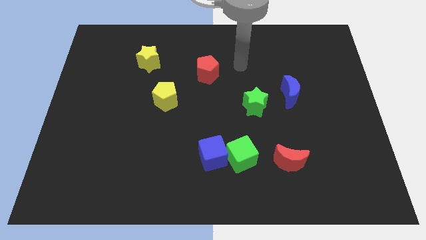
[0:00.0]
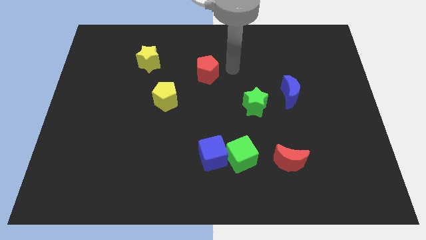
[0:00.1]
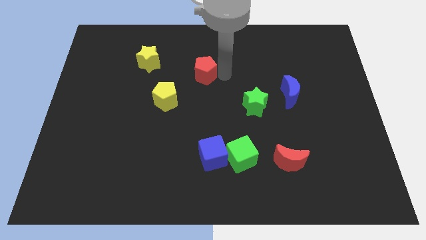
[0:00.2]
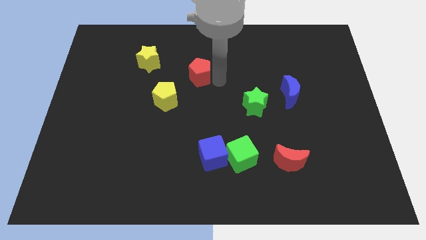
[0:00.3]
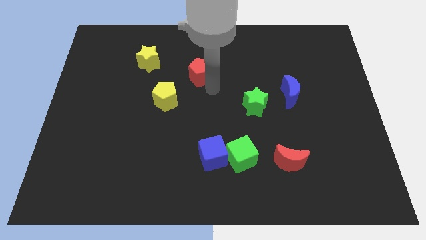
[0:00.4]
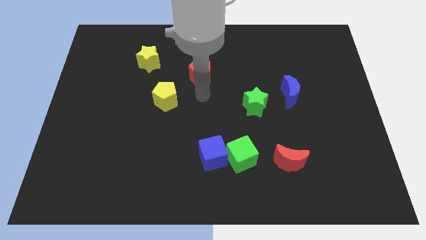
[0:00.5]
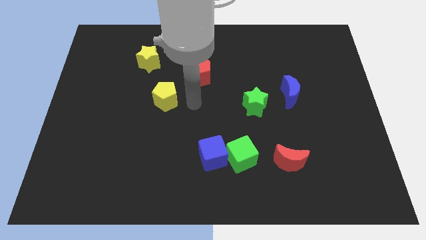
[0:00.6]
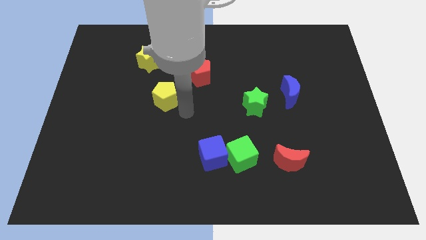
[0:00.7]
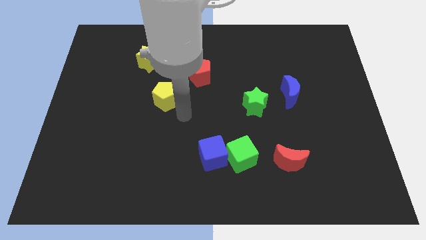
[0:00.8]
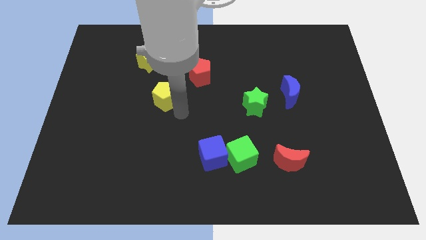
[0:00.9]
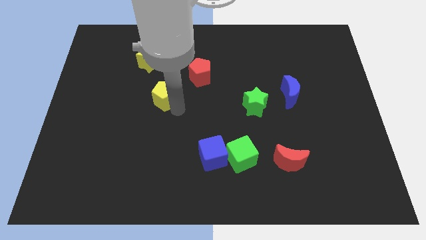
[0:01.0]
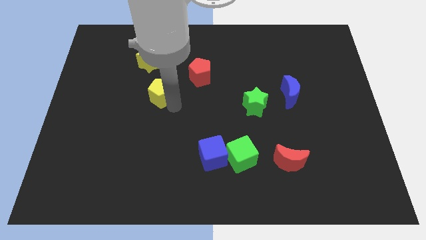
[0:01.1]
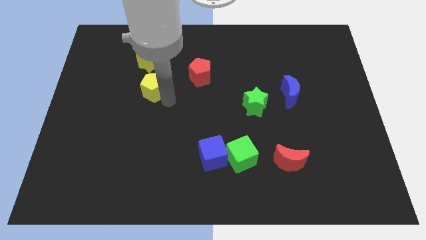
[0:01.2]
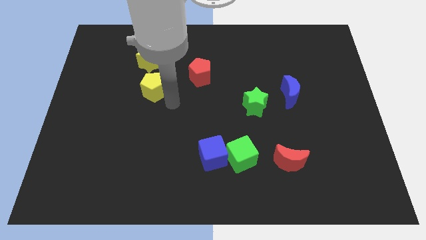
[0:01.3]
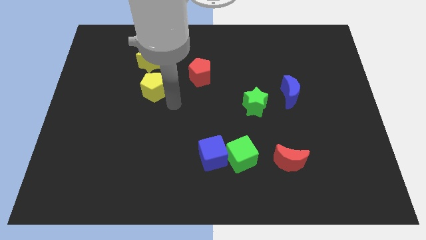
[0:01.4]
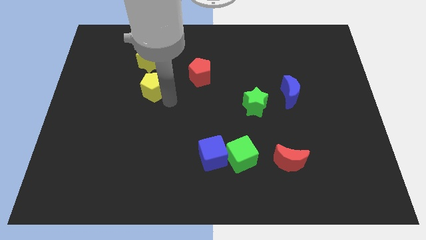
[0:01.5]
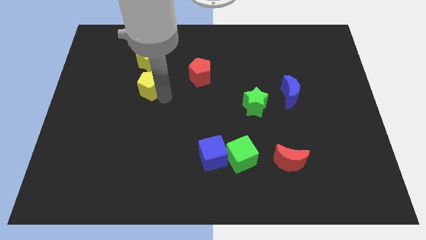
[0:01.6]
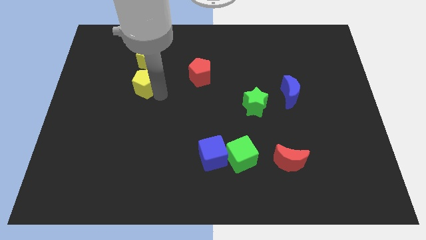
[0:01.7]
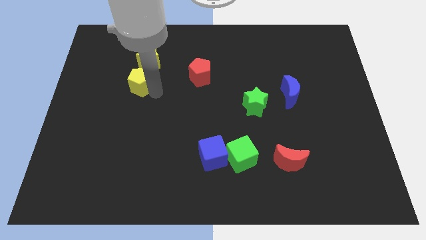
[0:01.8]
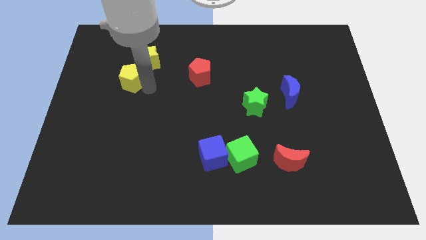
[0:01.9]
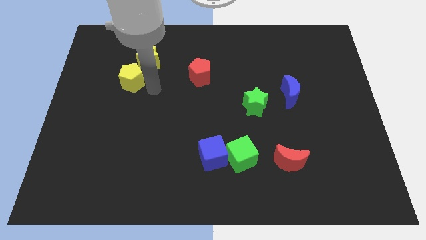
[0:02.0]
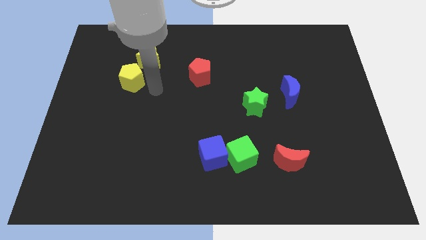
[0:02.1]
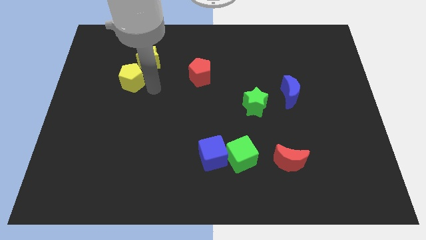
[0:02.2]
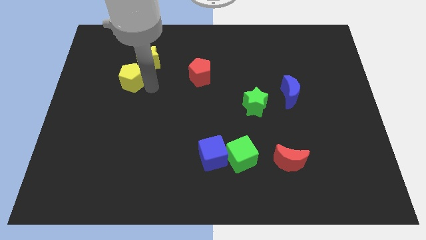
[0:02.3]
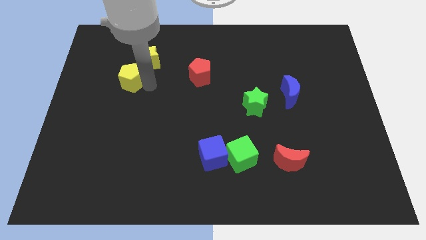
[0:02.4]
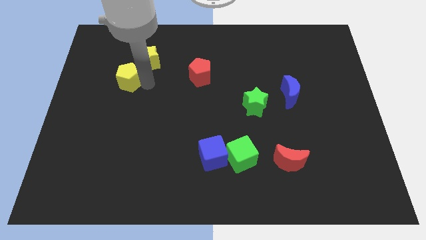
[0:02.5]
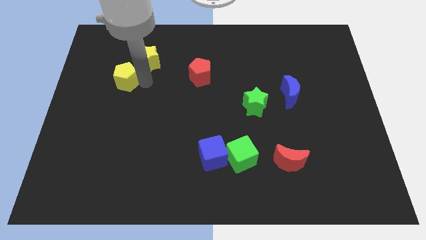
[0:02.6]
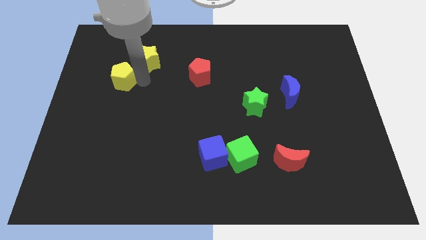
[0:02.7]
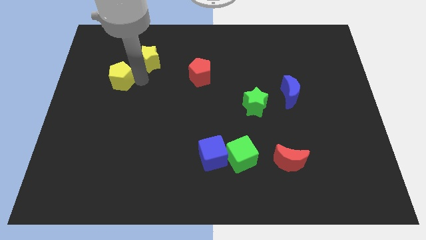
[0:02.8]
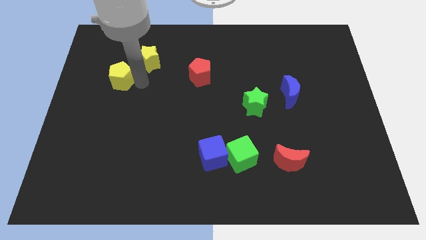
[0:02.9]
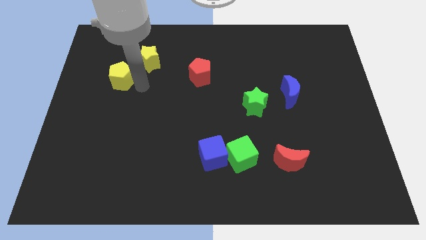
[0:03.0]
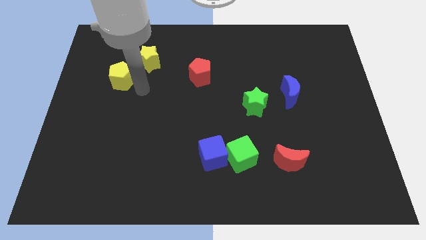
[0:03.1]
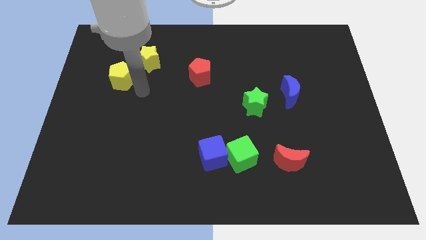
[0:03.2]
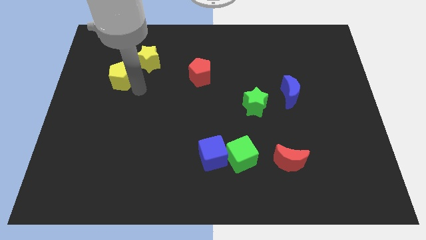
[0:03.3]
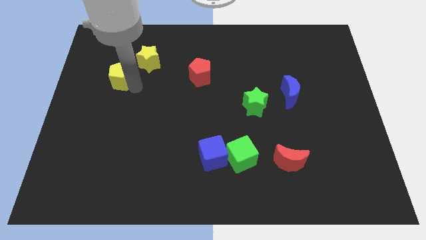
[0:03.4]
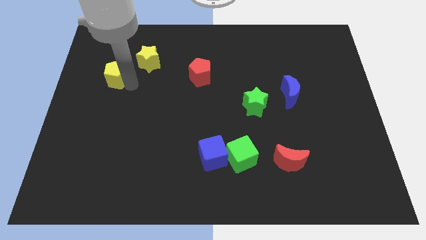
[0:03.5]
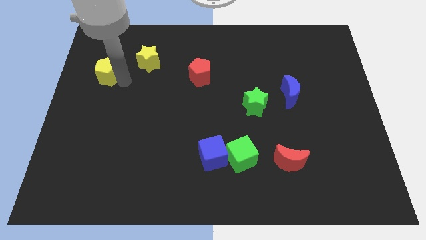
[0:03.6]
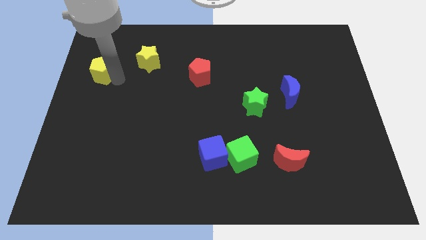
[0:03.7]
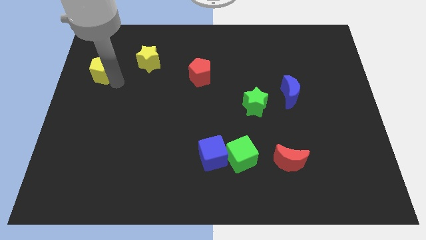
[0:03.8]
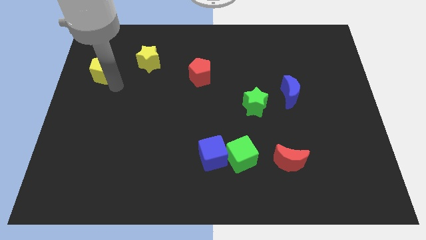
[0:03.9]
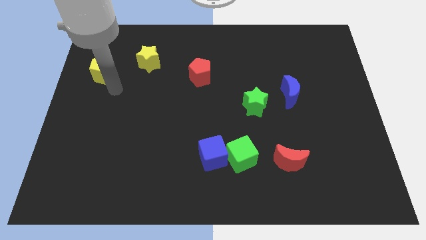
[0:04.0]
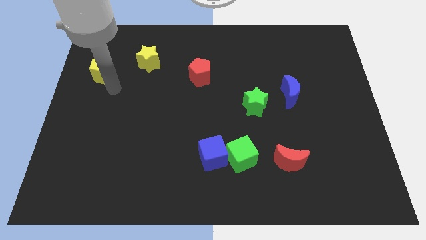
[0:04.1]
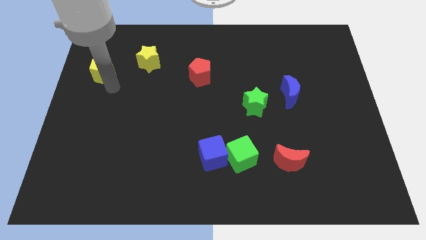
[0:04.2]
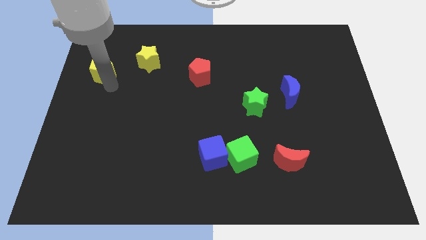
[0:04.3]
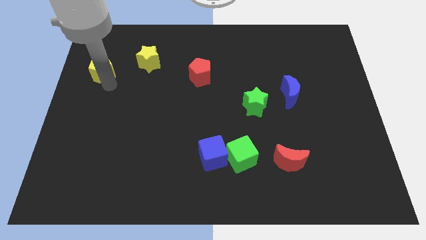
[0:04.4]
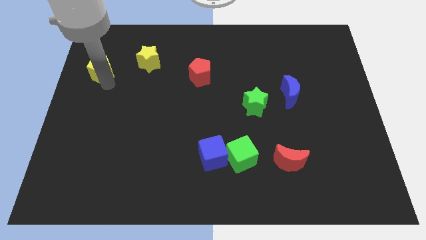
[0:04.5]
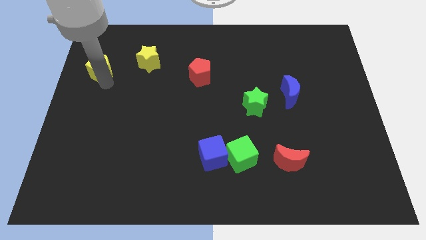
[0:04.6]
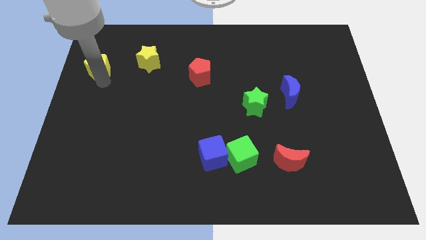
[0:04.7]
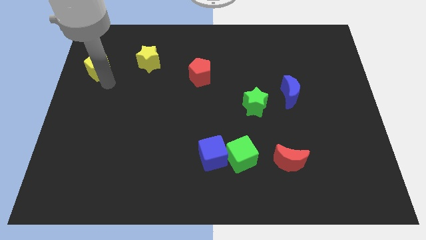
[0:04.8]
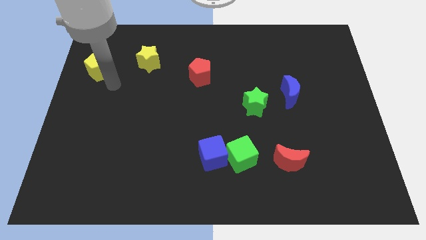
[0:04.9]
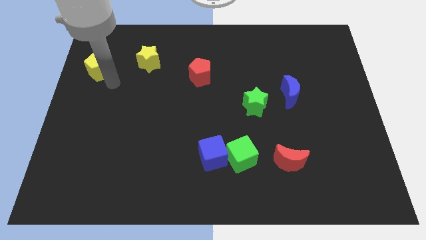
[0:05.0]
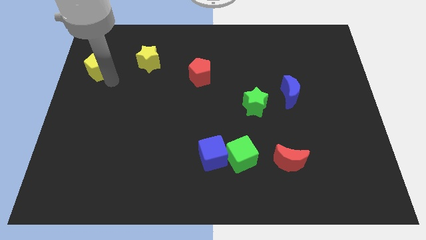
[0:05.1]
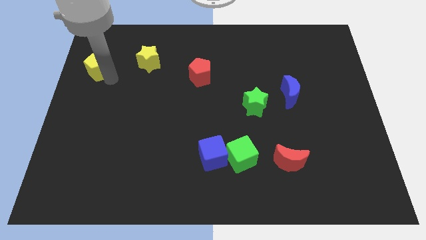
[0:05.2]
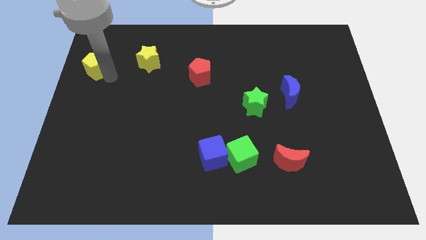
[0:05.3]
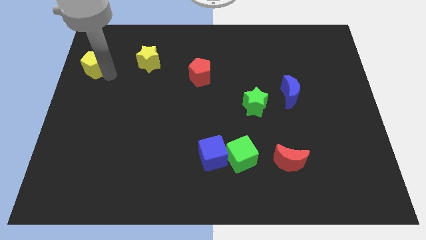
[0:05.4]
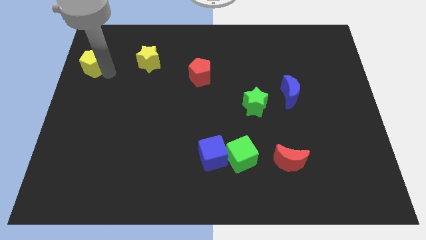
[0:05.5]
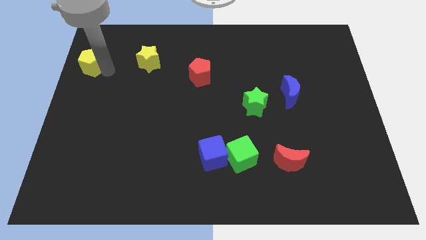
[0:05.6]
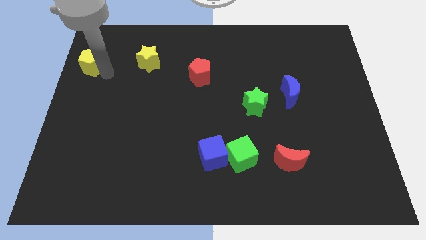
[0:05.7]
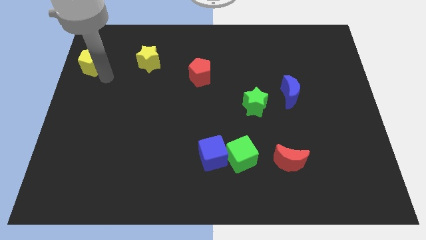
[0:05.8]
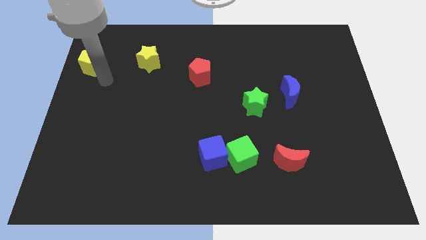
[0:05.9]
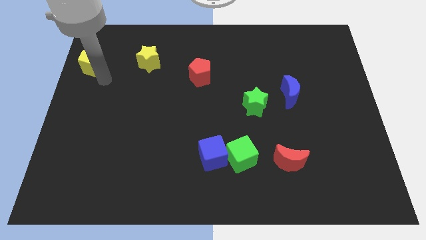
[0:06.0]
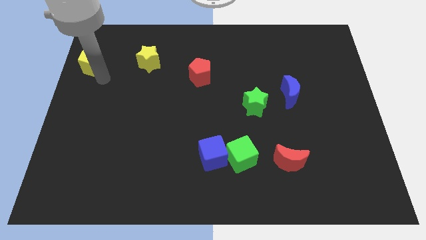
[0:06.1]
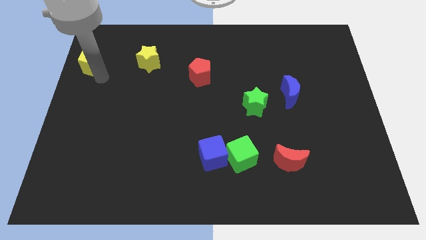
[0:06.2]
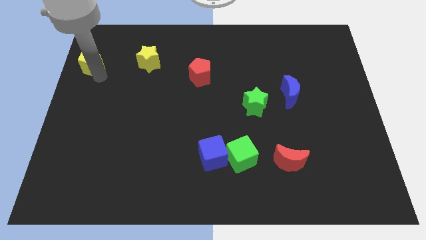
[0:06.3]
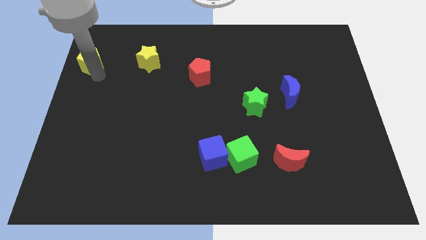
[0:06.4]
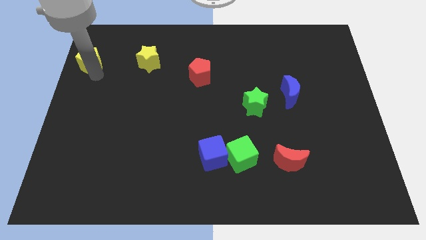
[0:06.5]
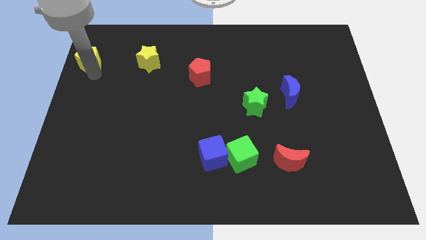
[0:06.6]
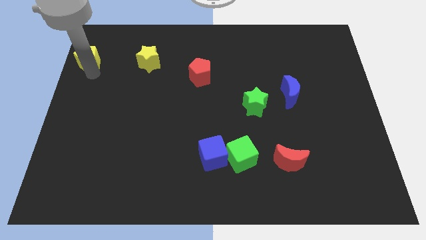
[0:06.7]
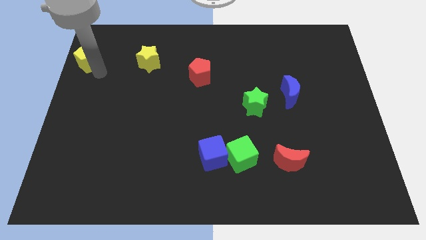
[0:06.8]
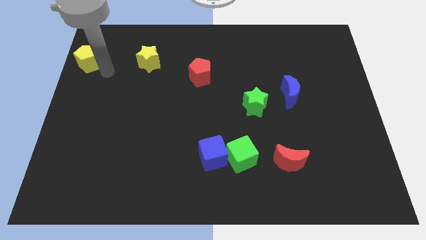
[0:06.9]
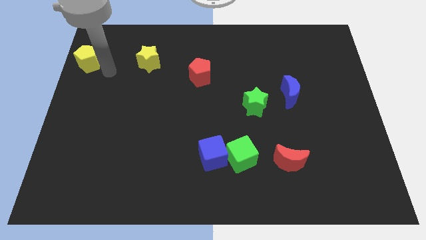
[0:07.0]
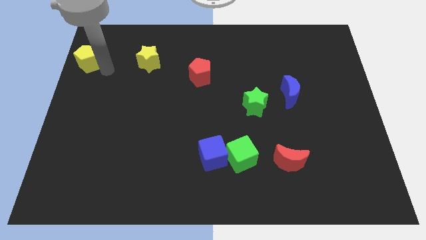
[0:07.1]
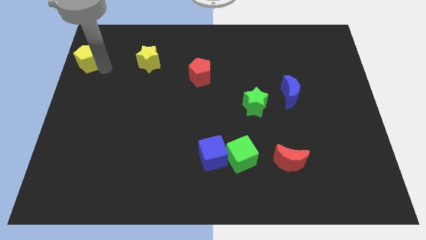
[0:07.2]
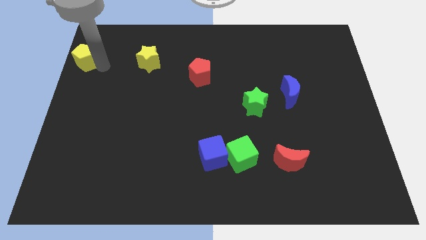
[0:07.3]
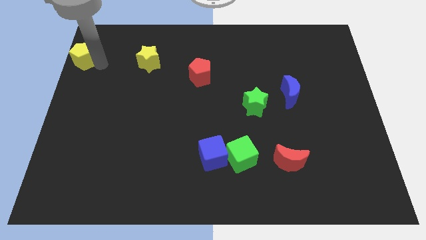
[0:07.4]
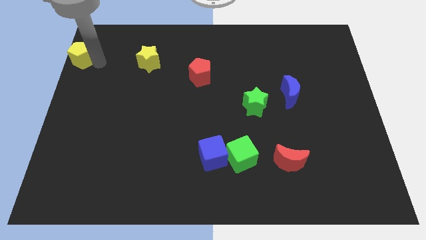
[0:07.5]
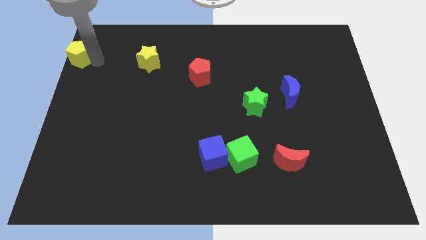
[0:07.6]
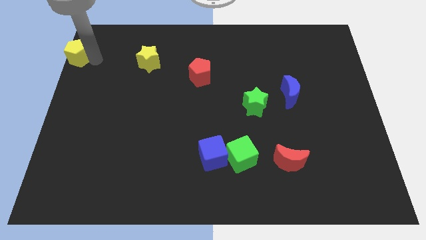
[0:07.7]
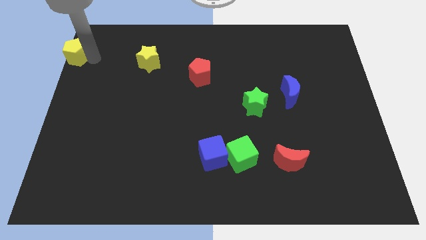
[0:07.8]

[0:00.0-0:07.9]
push the yellow pentagon to the upper left corner
